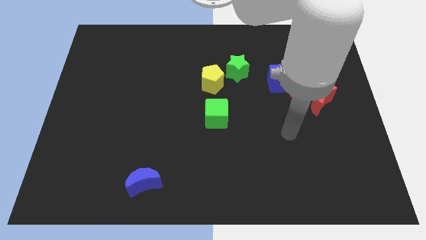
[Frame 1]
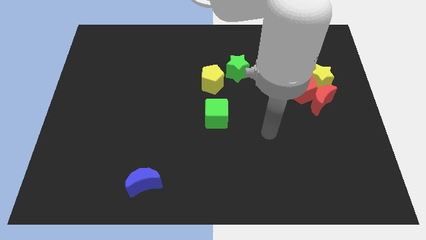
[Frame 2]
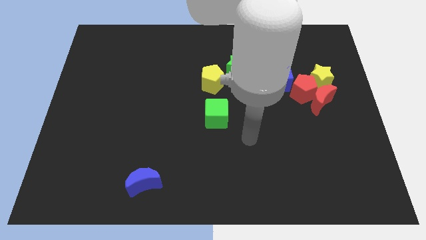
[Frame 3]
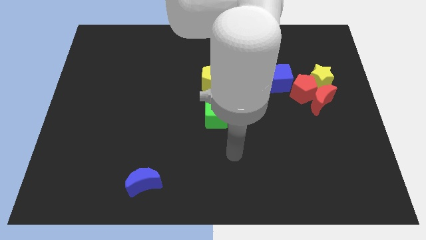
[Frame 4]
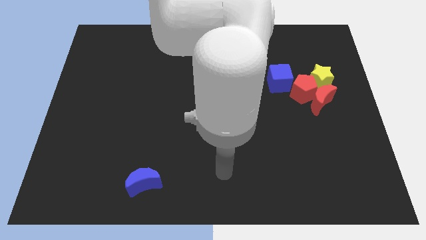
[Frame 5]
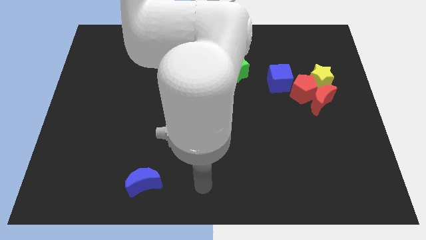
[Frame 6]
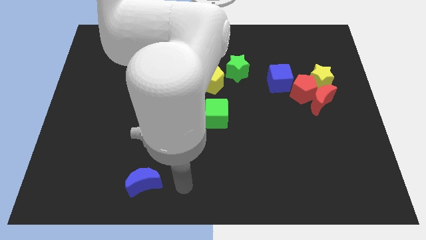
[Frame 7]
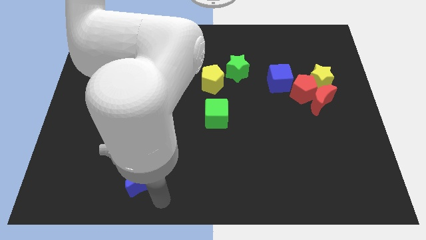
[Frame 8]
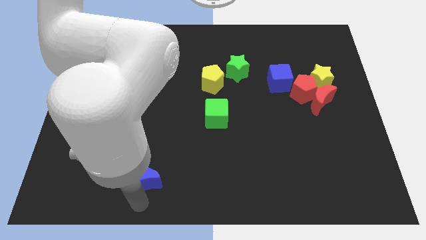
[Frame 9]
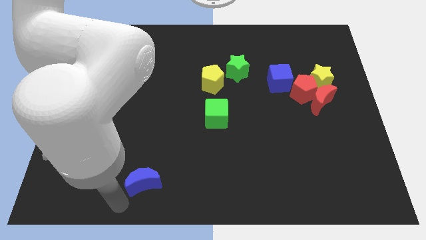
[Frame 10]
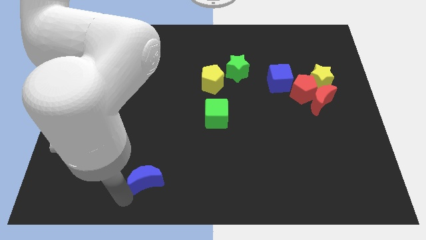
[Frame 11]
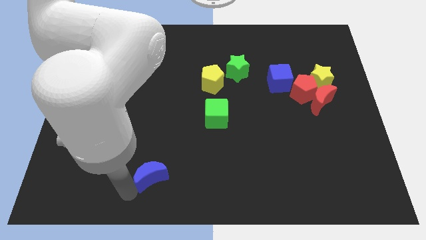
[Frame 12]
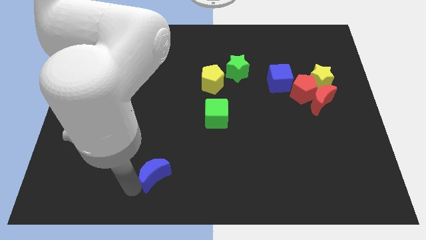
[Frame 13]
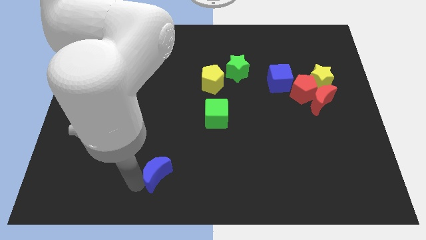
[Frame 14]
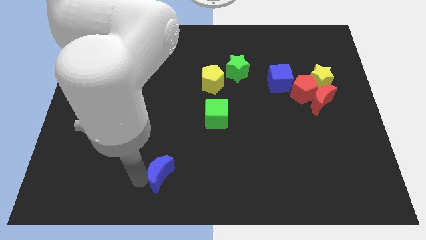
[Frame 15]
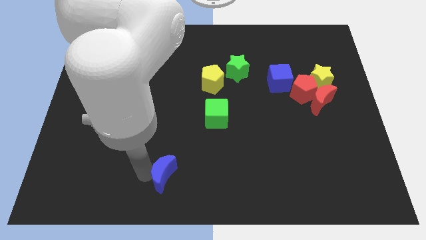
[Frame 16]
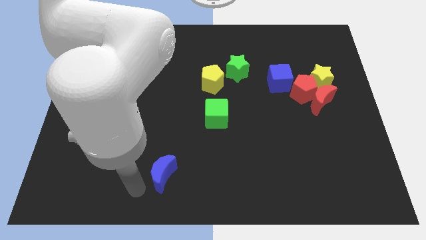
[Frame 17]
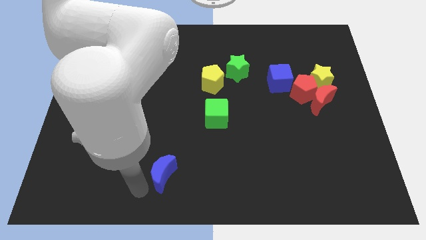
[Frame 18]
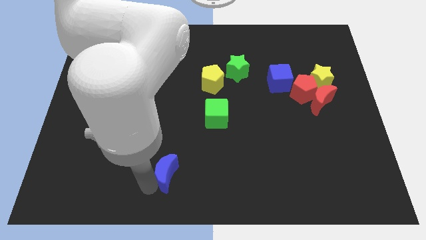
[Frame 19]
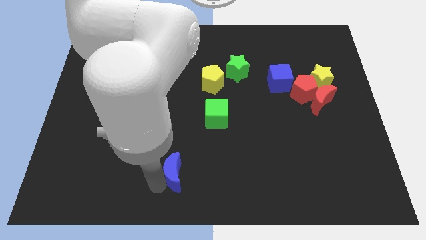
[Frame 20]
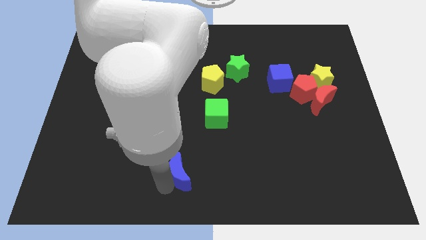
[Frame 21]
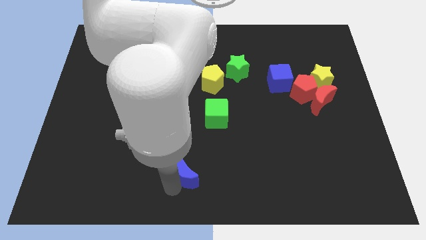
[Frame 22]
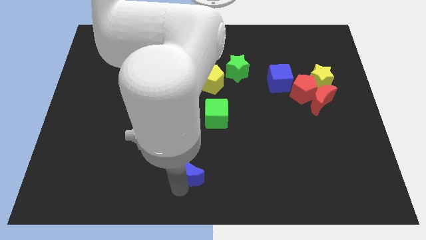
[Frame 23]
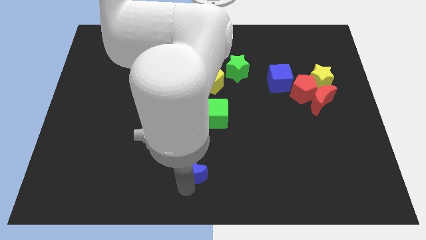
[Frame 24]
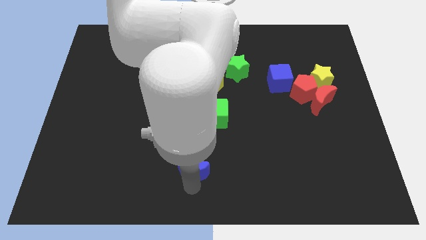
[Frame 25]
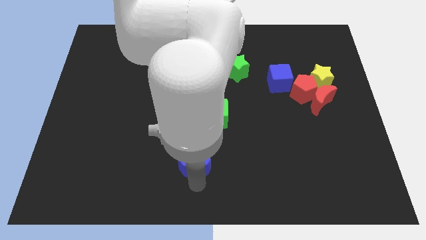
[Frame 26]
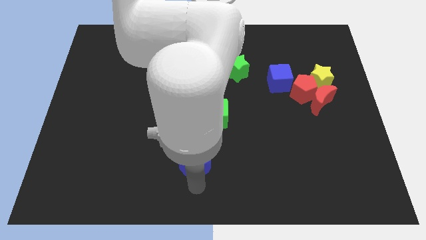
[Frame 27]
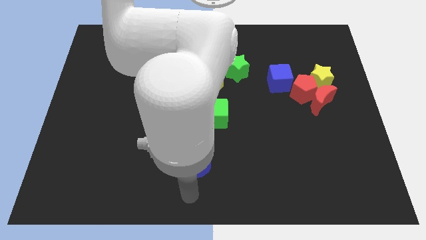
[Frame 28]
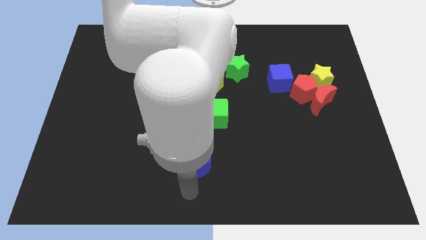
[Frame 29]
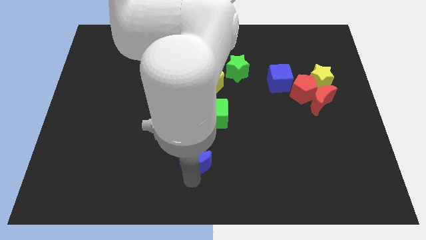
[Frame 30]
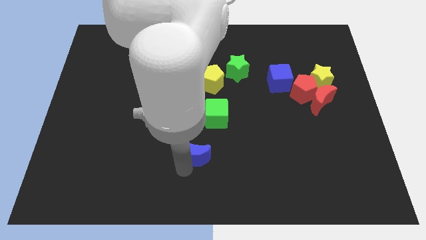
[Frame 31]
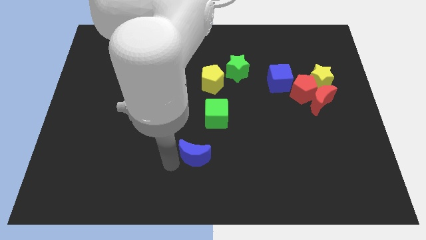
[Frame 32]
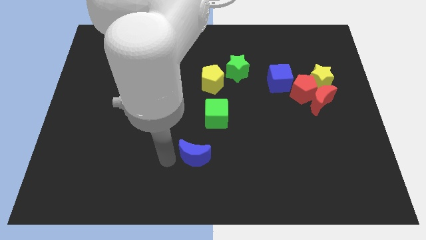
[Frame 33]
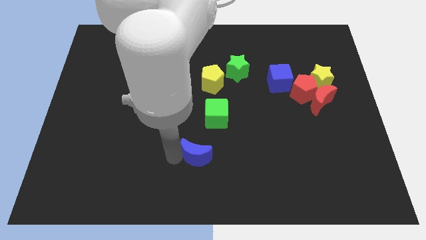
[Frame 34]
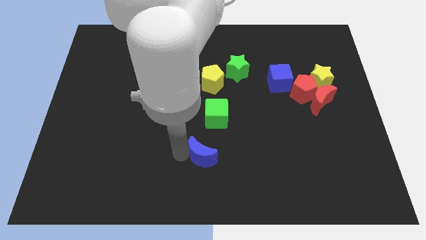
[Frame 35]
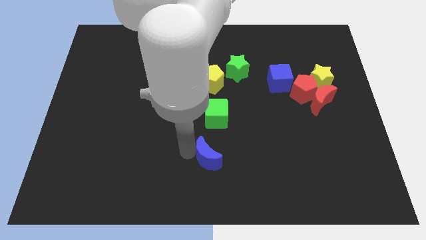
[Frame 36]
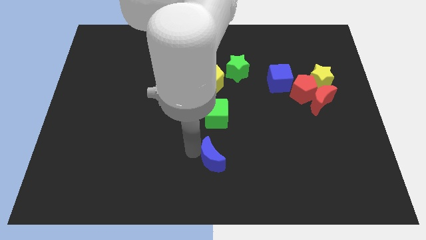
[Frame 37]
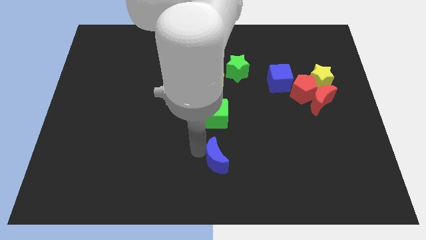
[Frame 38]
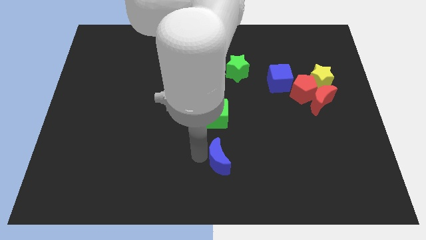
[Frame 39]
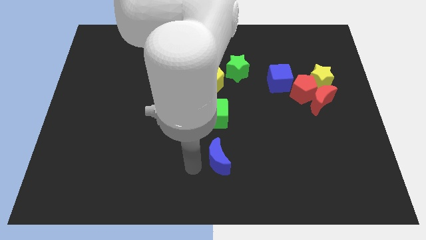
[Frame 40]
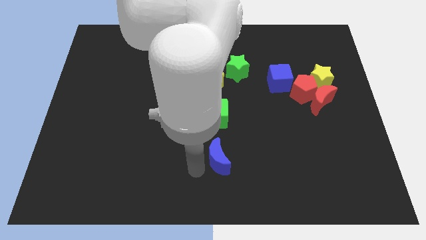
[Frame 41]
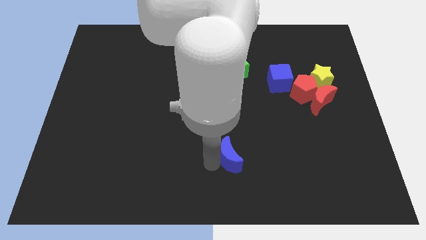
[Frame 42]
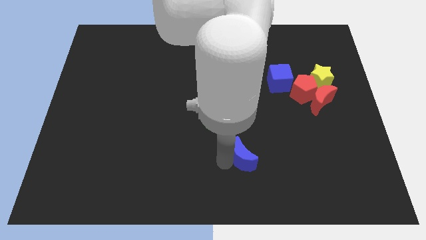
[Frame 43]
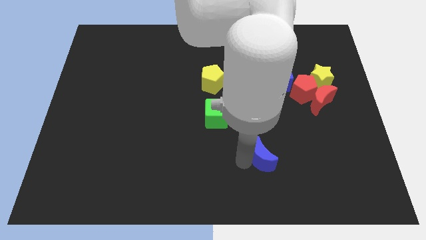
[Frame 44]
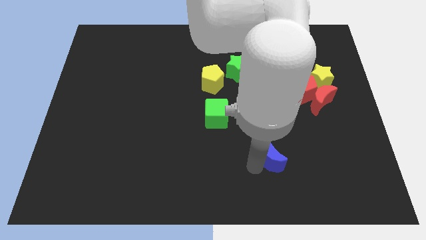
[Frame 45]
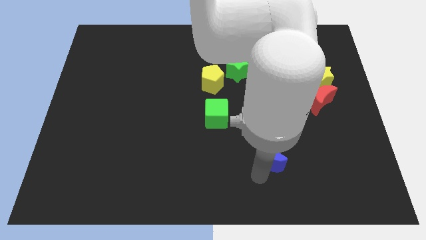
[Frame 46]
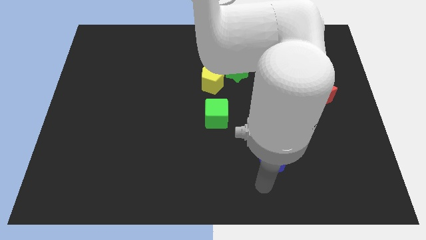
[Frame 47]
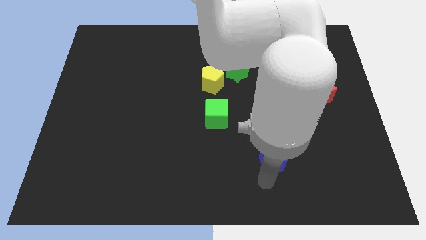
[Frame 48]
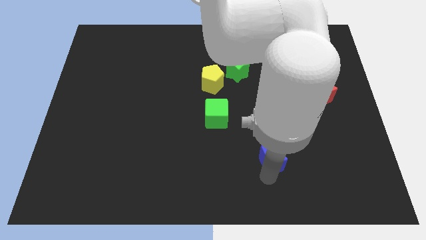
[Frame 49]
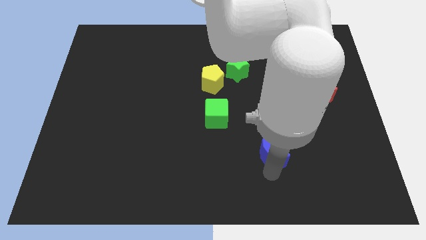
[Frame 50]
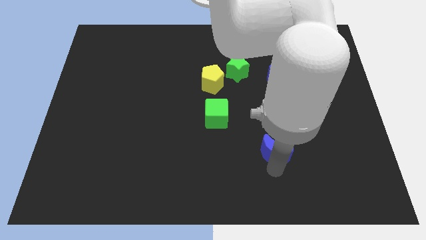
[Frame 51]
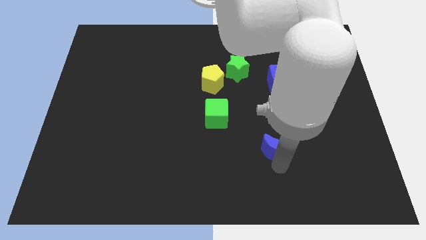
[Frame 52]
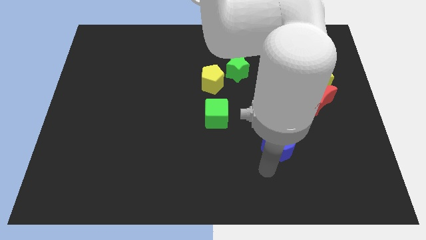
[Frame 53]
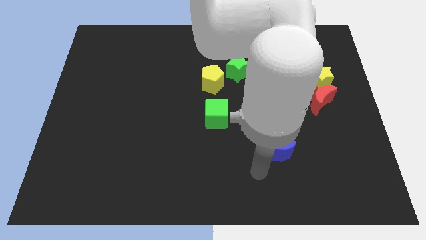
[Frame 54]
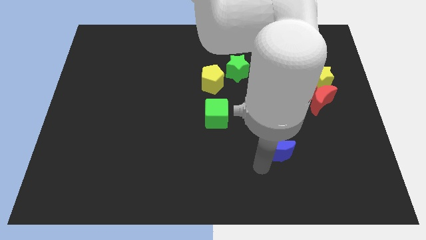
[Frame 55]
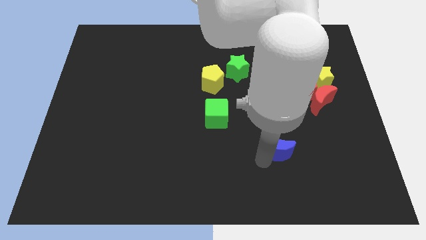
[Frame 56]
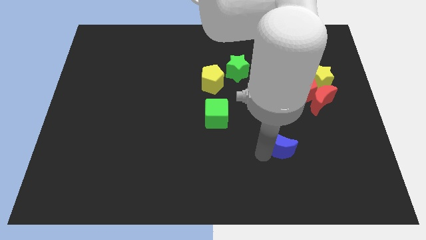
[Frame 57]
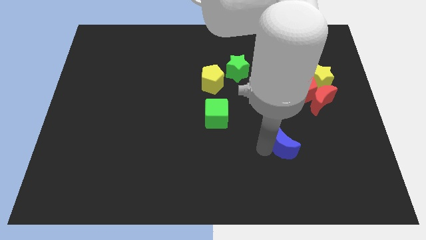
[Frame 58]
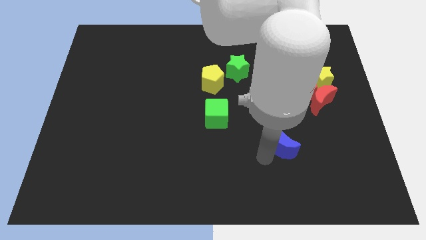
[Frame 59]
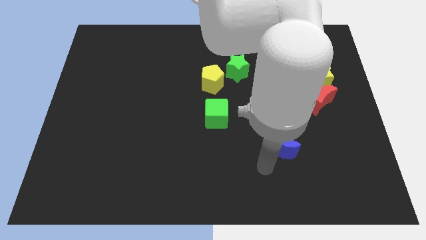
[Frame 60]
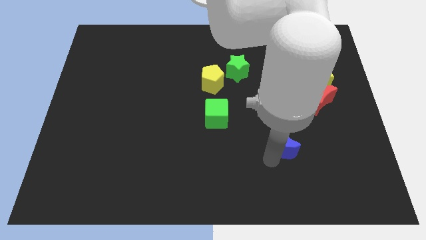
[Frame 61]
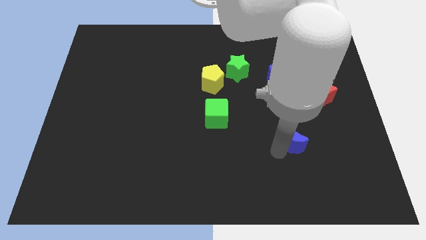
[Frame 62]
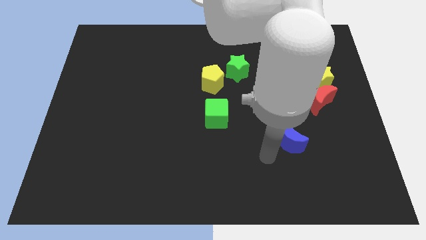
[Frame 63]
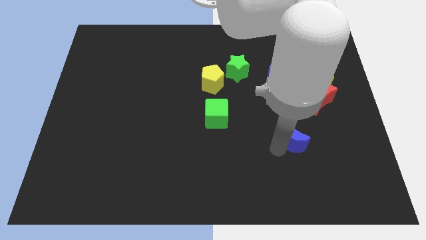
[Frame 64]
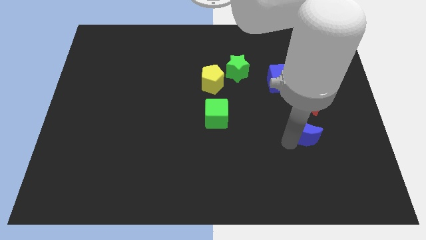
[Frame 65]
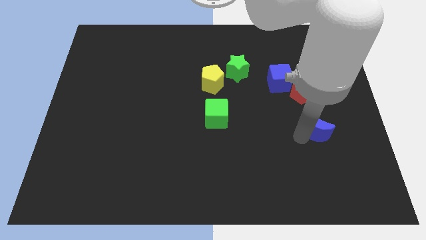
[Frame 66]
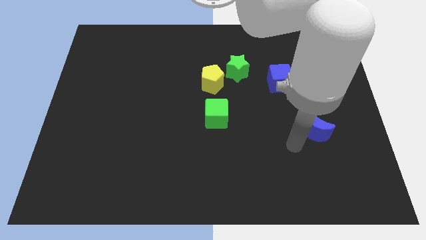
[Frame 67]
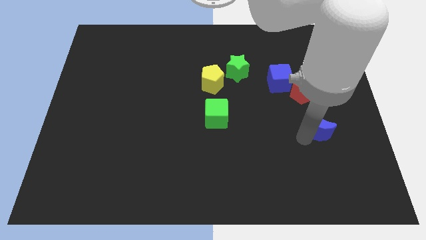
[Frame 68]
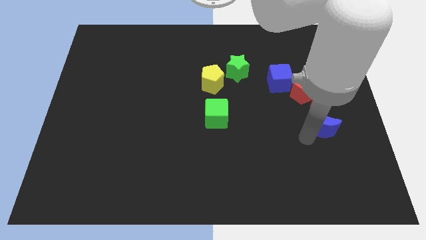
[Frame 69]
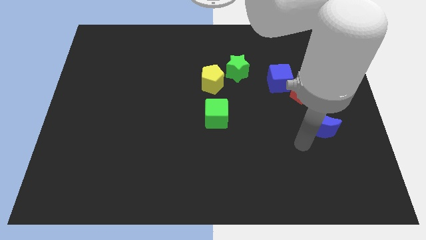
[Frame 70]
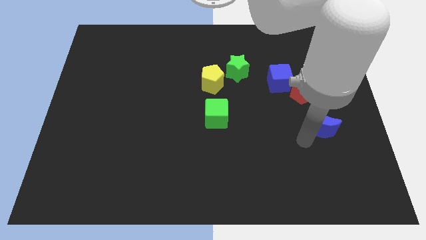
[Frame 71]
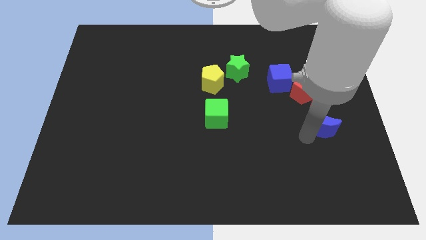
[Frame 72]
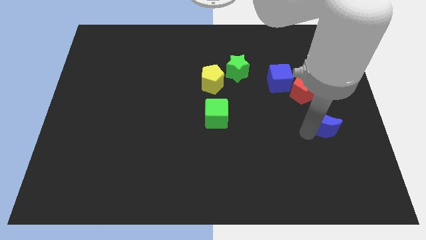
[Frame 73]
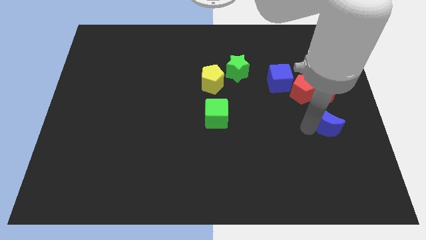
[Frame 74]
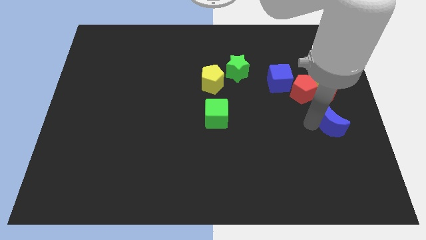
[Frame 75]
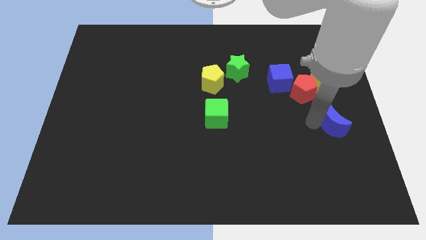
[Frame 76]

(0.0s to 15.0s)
slide the blue moon to the right side of the board
